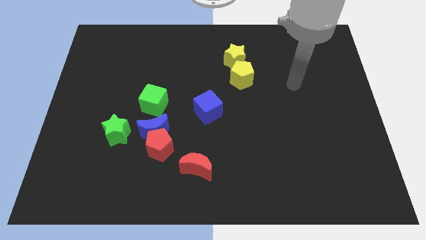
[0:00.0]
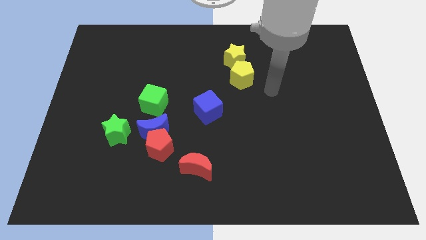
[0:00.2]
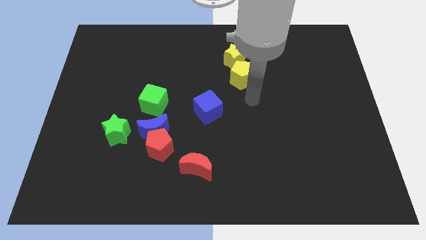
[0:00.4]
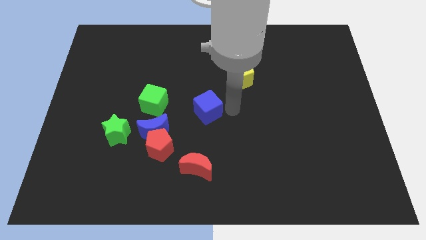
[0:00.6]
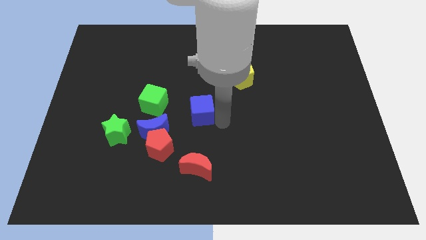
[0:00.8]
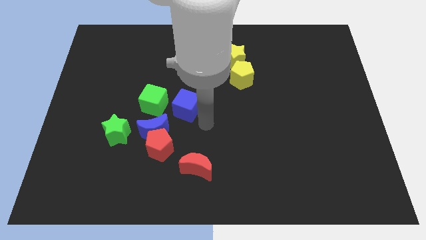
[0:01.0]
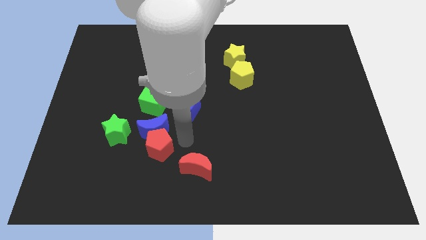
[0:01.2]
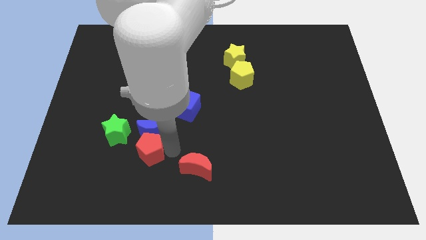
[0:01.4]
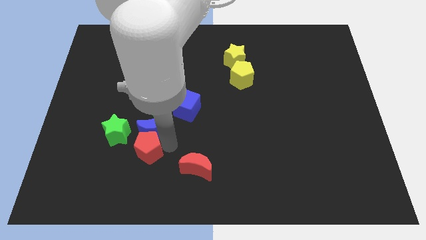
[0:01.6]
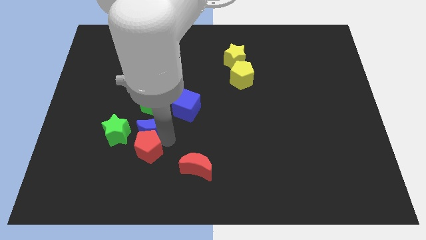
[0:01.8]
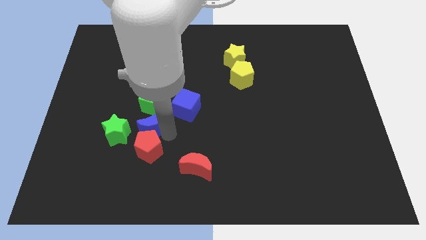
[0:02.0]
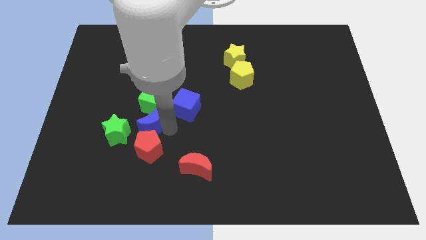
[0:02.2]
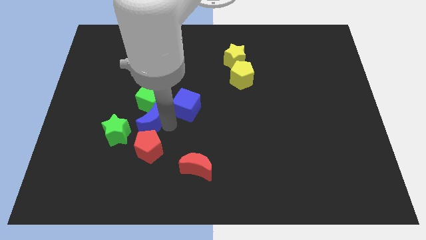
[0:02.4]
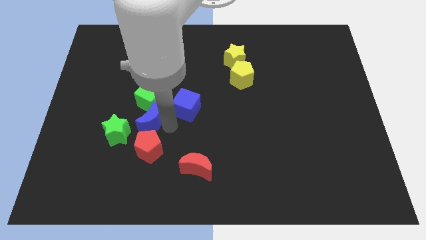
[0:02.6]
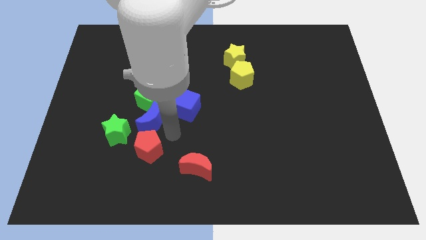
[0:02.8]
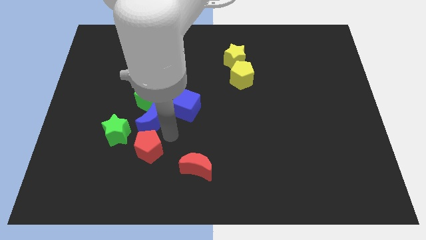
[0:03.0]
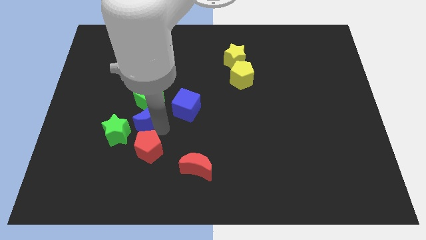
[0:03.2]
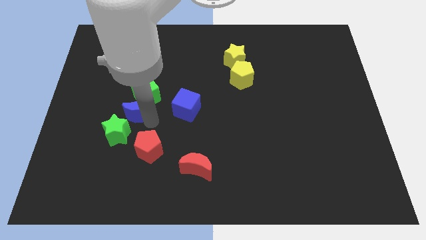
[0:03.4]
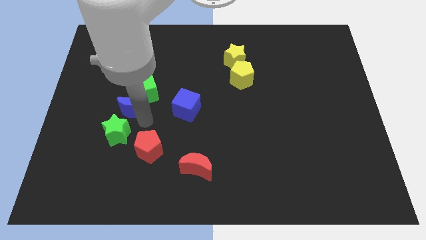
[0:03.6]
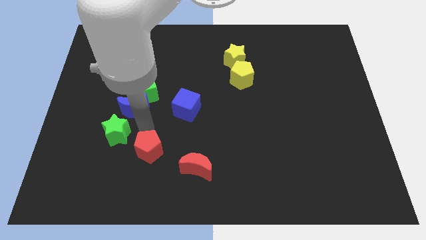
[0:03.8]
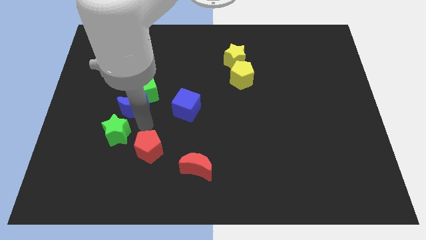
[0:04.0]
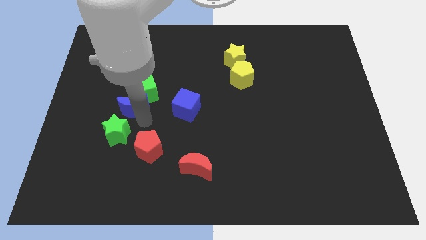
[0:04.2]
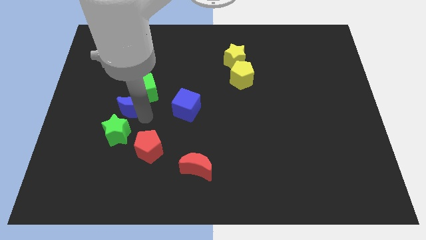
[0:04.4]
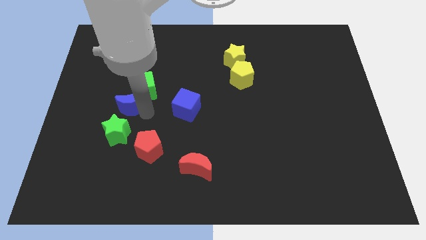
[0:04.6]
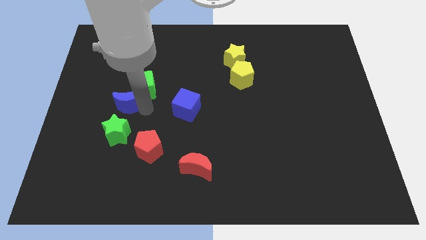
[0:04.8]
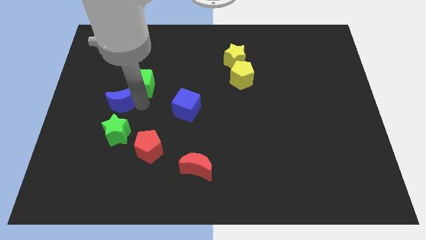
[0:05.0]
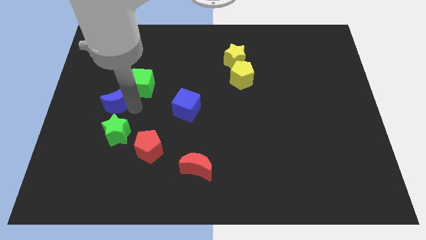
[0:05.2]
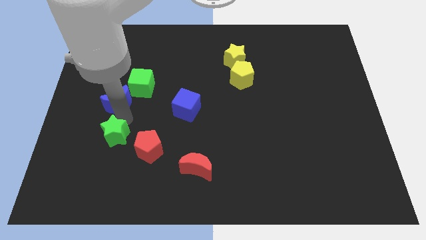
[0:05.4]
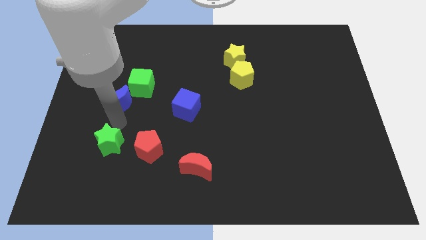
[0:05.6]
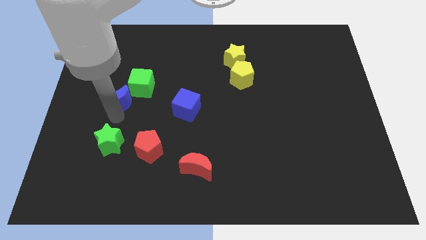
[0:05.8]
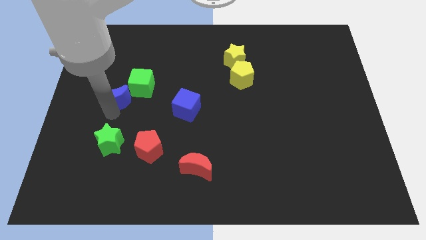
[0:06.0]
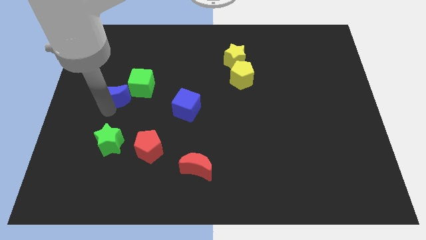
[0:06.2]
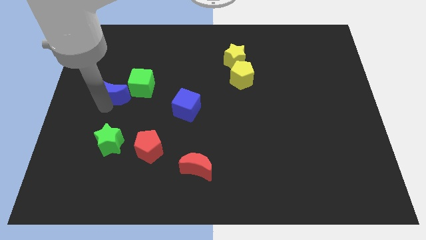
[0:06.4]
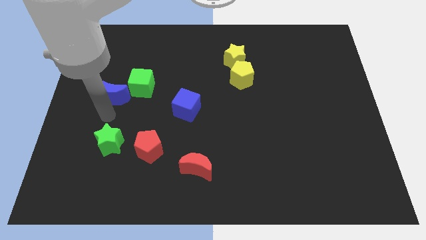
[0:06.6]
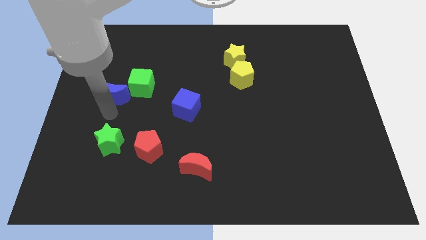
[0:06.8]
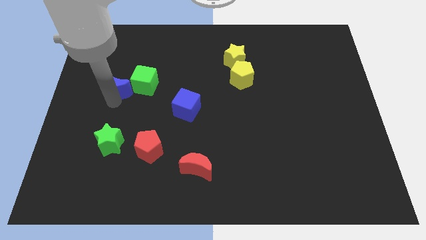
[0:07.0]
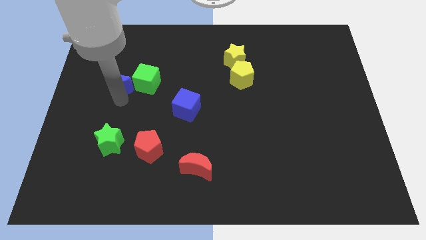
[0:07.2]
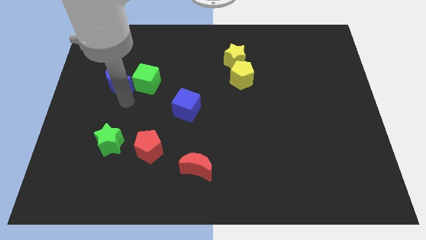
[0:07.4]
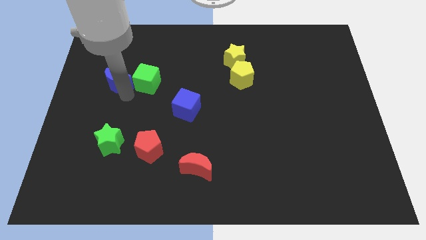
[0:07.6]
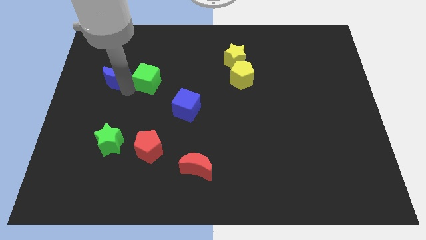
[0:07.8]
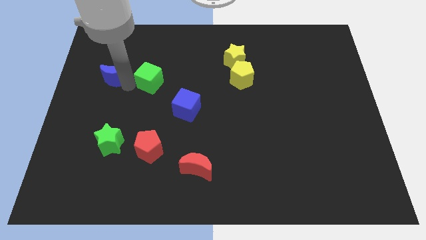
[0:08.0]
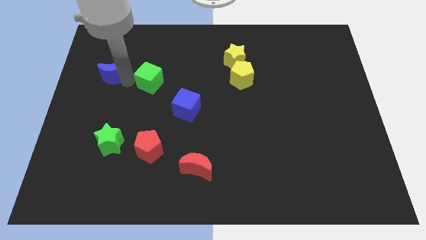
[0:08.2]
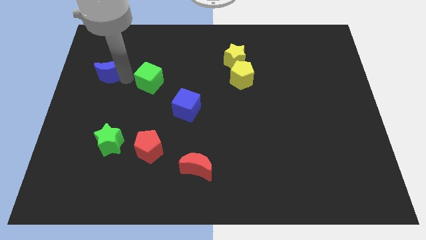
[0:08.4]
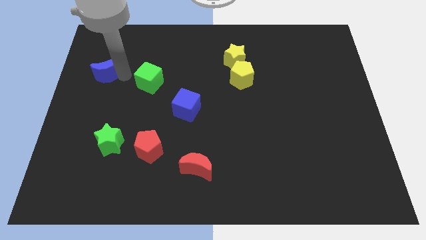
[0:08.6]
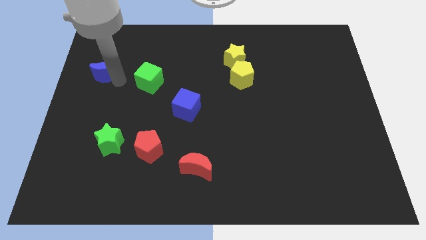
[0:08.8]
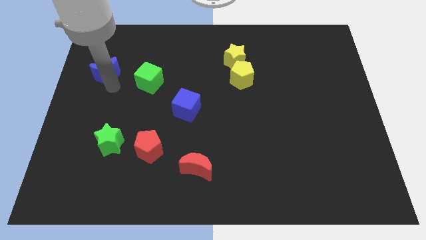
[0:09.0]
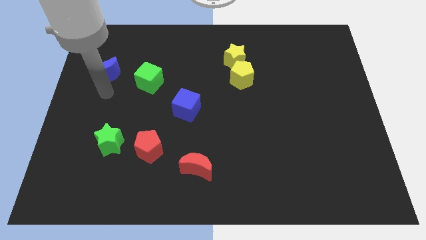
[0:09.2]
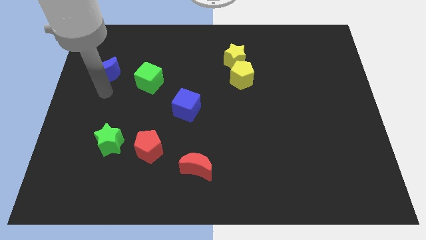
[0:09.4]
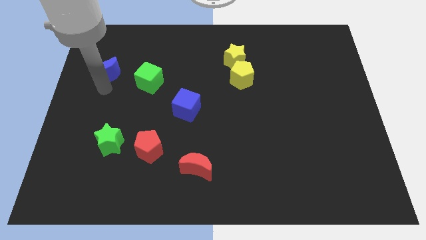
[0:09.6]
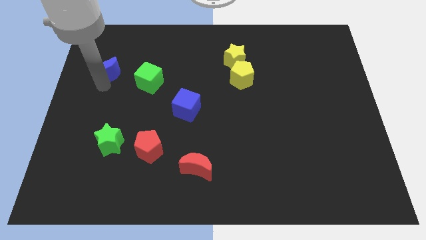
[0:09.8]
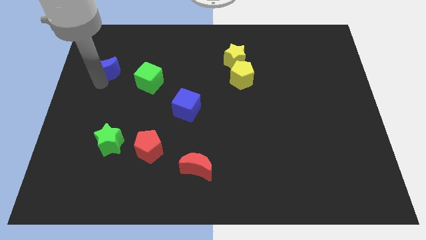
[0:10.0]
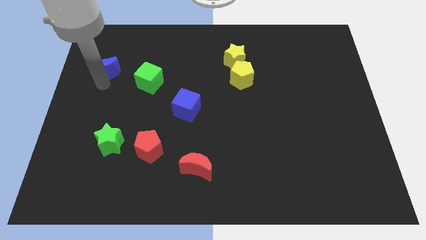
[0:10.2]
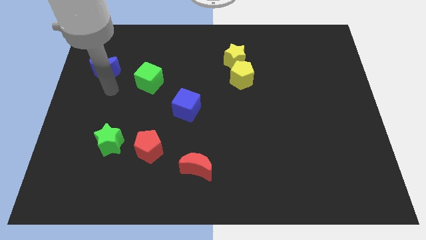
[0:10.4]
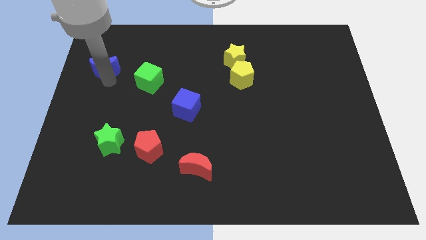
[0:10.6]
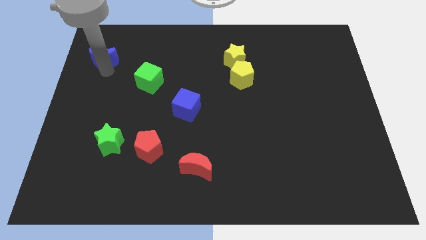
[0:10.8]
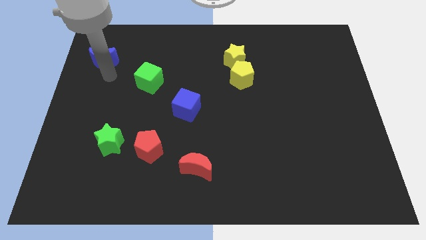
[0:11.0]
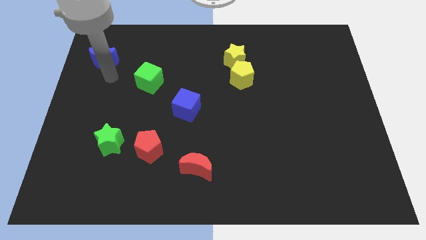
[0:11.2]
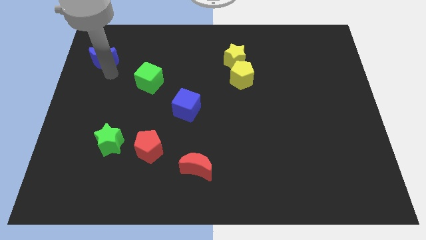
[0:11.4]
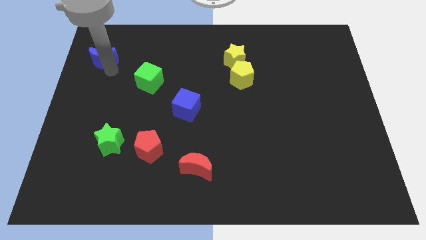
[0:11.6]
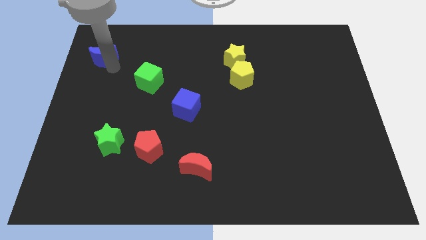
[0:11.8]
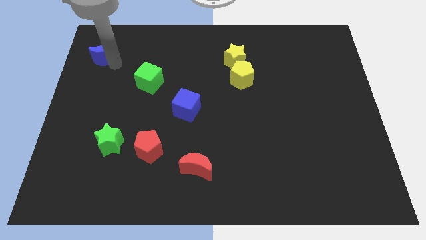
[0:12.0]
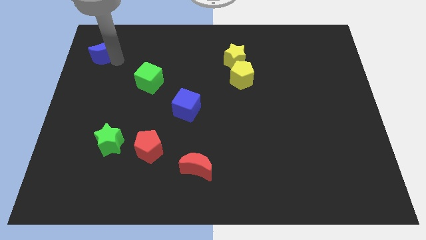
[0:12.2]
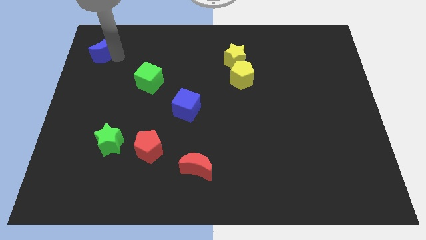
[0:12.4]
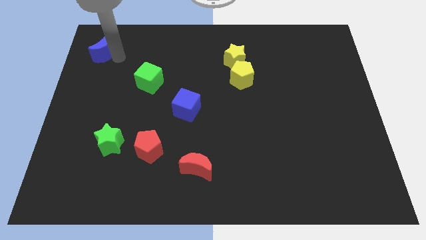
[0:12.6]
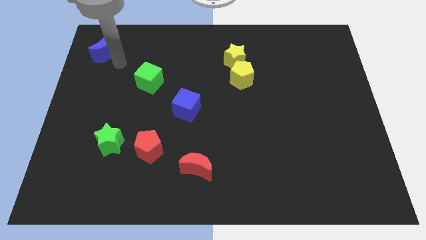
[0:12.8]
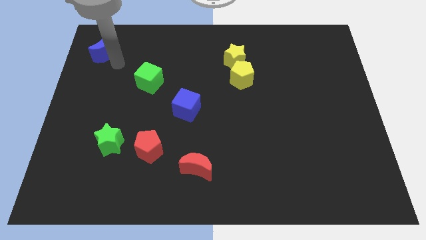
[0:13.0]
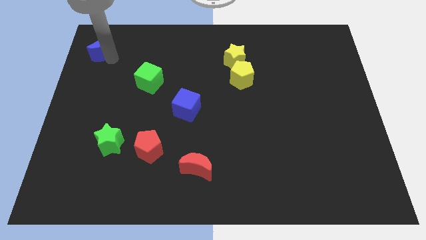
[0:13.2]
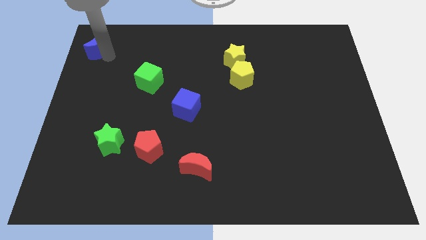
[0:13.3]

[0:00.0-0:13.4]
push the blue moon to the upper left corner

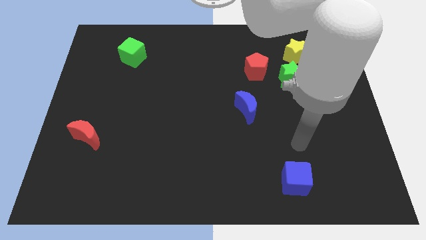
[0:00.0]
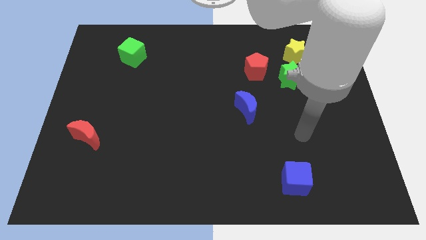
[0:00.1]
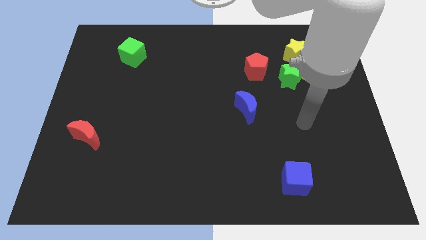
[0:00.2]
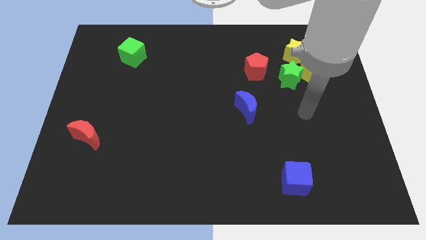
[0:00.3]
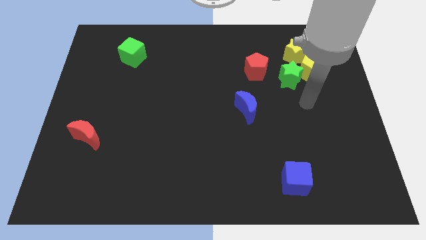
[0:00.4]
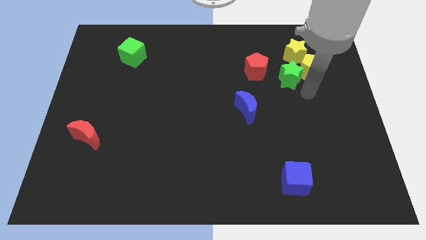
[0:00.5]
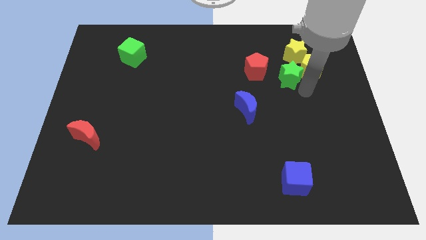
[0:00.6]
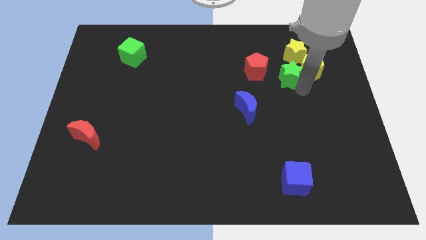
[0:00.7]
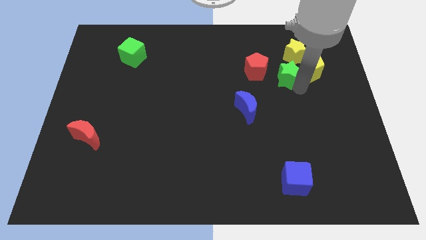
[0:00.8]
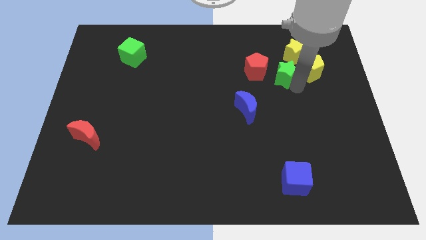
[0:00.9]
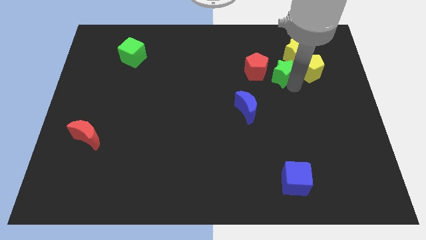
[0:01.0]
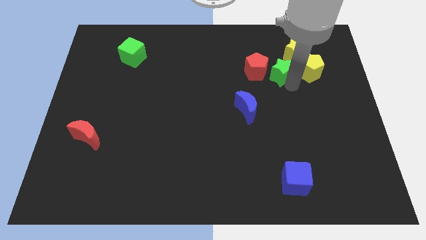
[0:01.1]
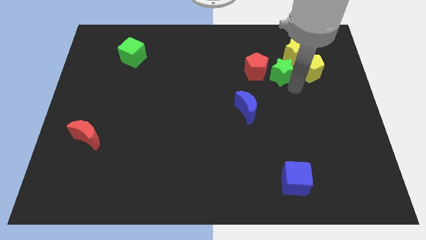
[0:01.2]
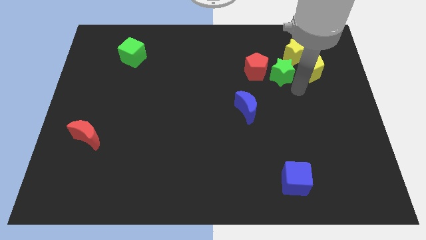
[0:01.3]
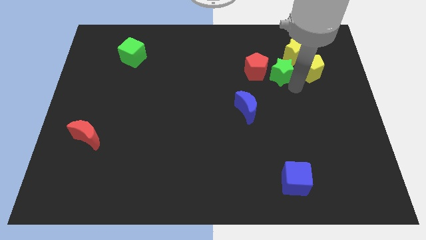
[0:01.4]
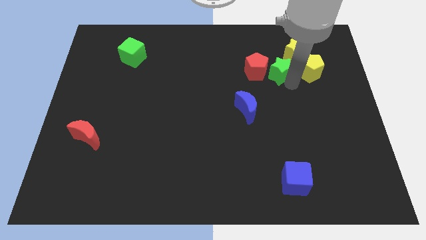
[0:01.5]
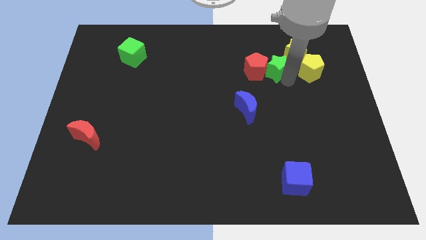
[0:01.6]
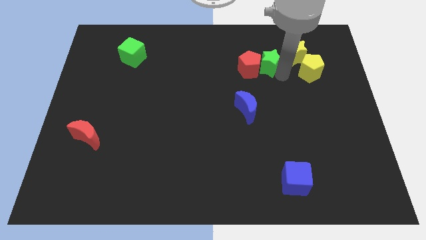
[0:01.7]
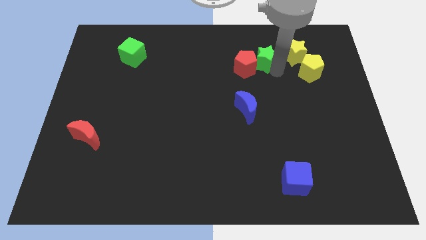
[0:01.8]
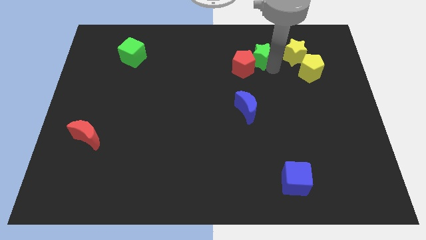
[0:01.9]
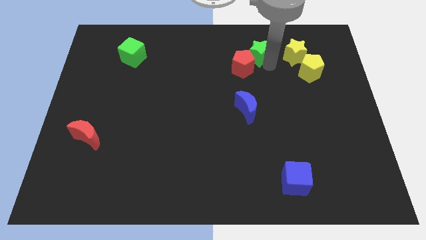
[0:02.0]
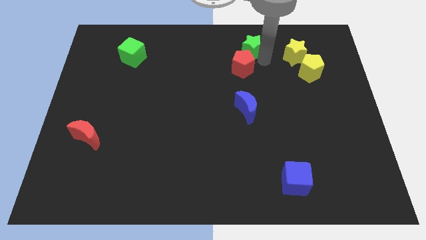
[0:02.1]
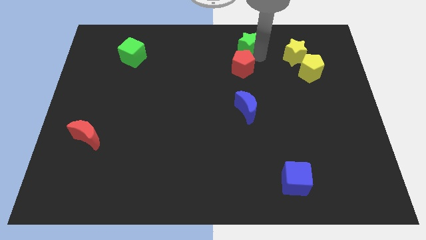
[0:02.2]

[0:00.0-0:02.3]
slide the green star to the top
